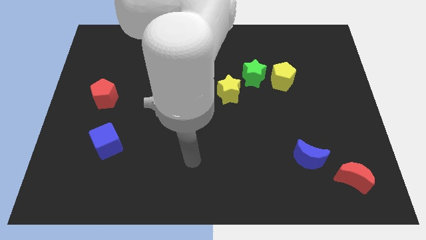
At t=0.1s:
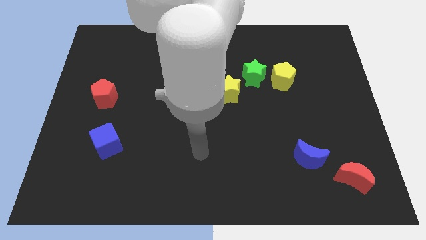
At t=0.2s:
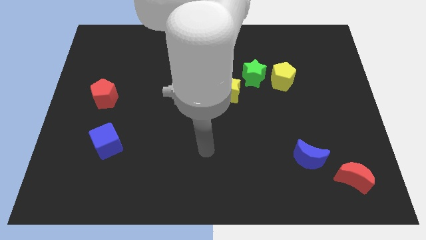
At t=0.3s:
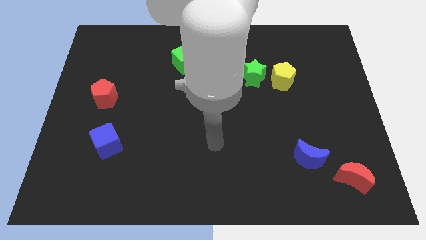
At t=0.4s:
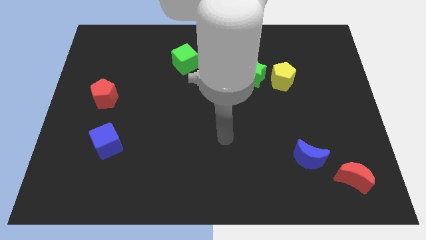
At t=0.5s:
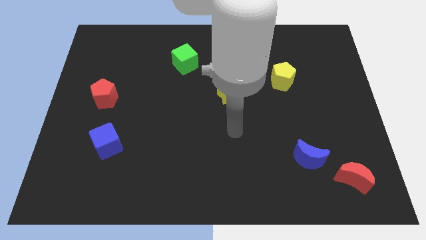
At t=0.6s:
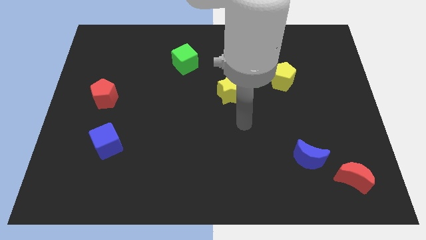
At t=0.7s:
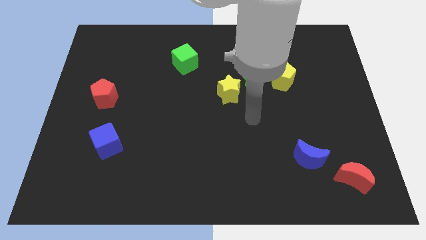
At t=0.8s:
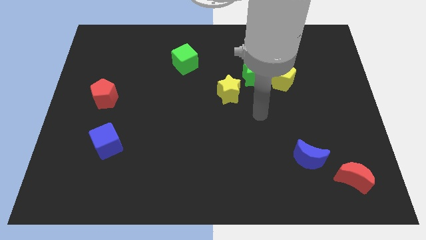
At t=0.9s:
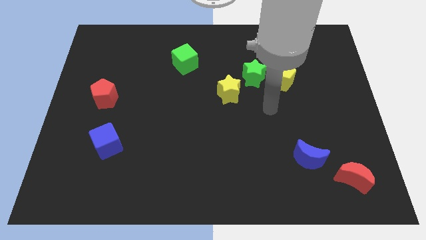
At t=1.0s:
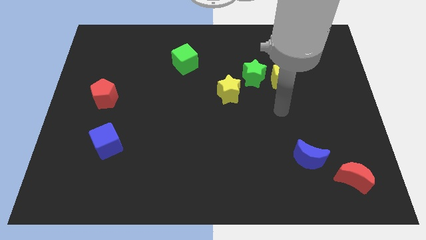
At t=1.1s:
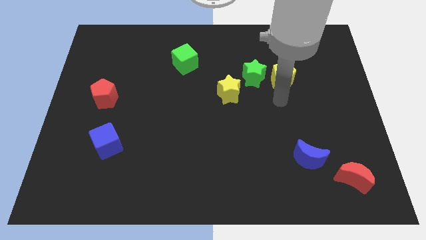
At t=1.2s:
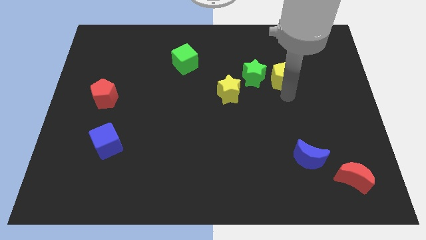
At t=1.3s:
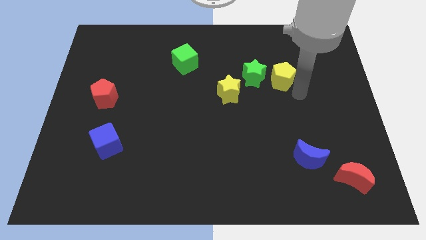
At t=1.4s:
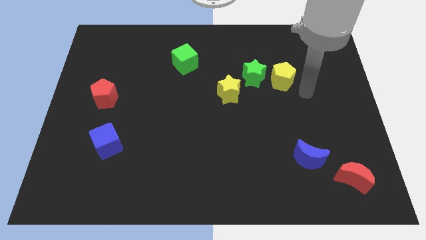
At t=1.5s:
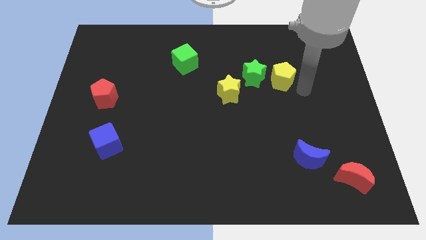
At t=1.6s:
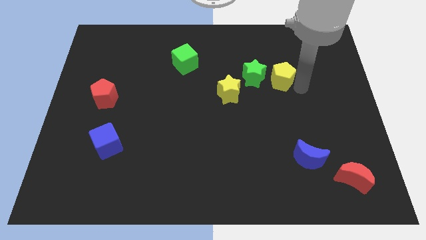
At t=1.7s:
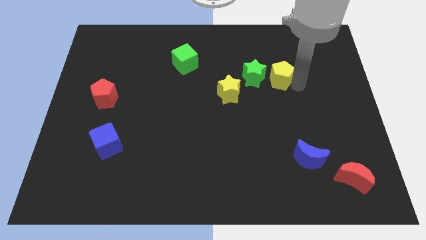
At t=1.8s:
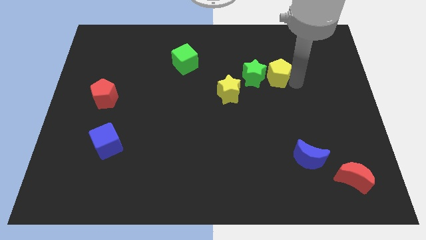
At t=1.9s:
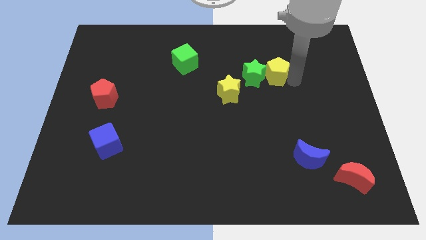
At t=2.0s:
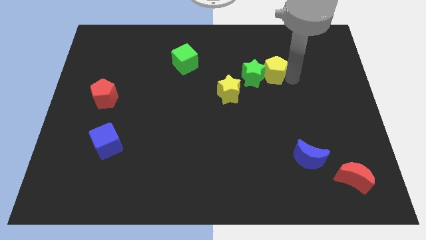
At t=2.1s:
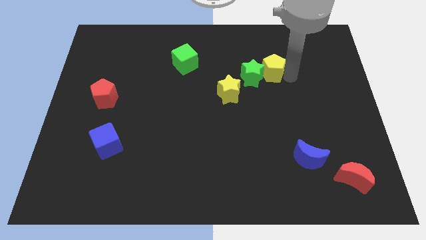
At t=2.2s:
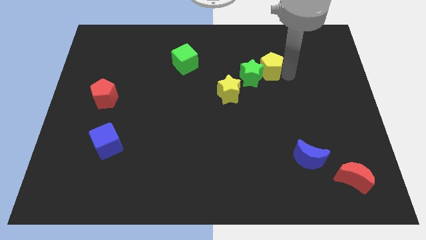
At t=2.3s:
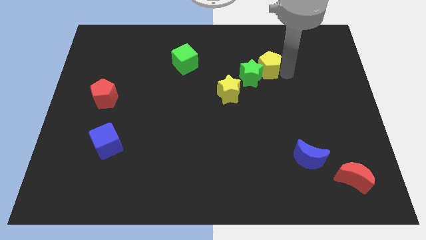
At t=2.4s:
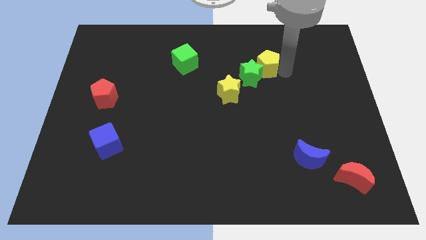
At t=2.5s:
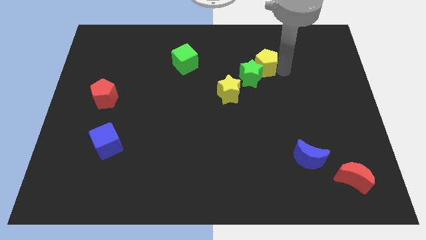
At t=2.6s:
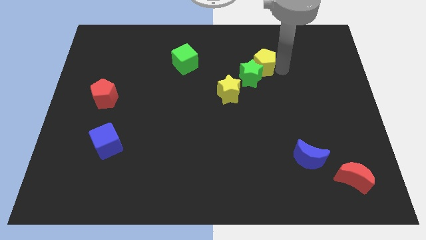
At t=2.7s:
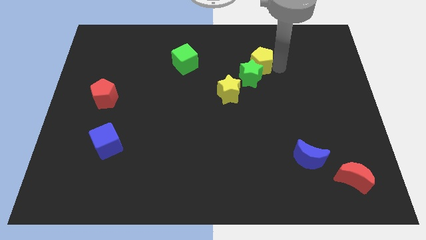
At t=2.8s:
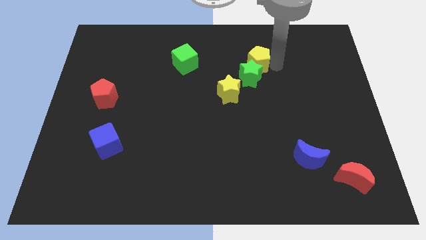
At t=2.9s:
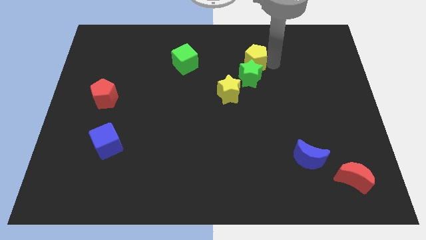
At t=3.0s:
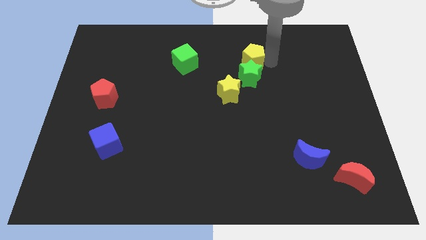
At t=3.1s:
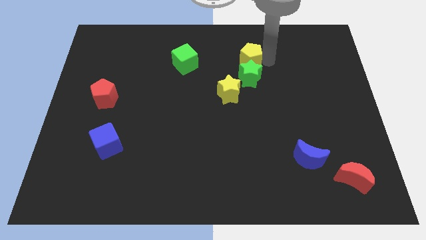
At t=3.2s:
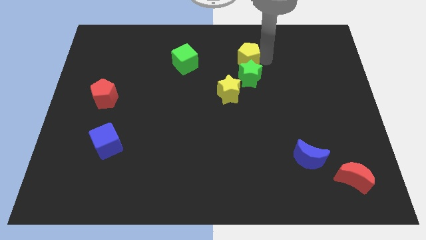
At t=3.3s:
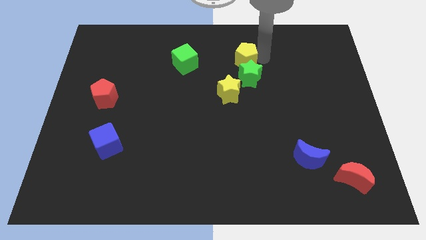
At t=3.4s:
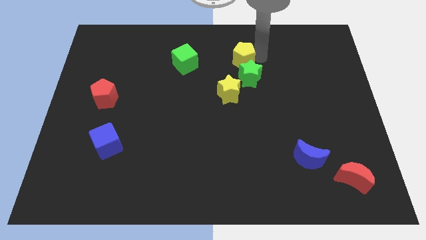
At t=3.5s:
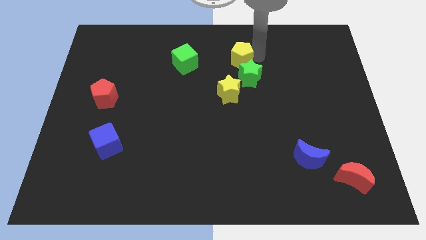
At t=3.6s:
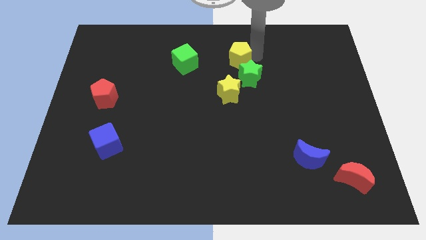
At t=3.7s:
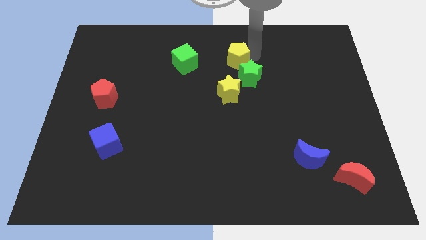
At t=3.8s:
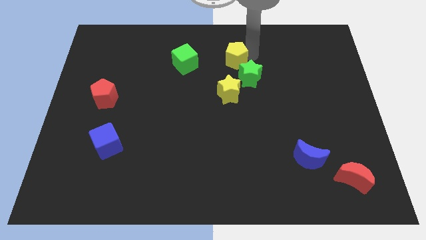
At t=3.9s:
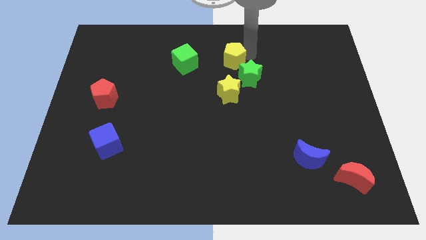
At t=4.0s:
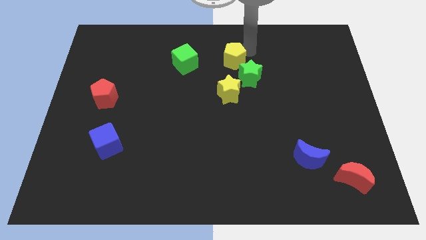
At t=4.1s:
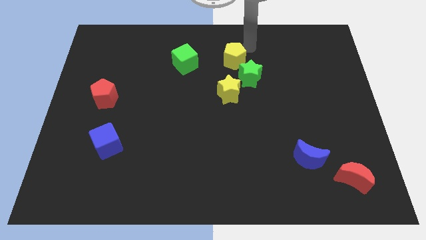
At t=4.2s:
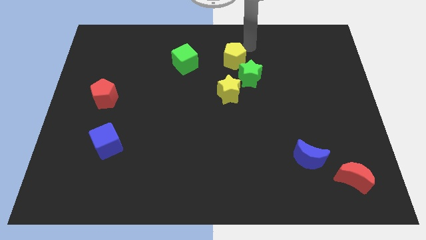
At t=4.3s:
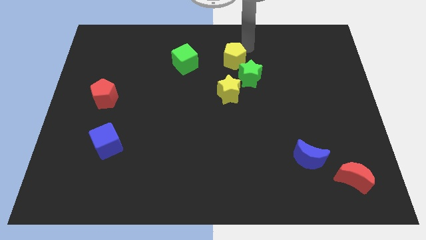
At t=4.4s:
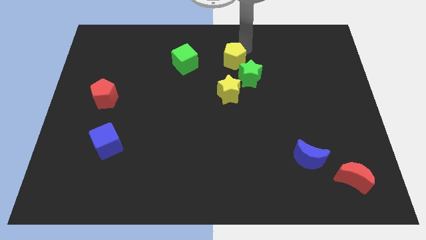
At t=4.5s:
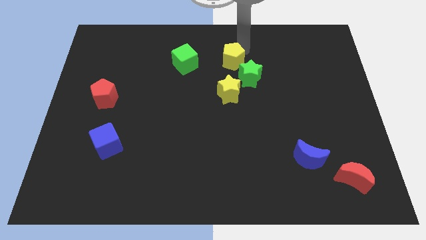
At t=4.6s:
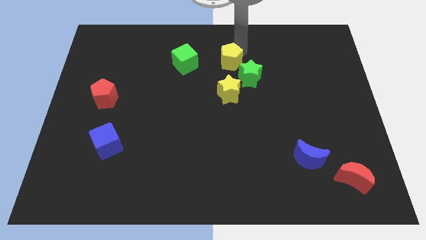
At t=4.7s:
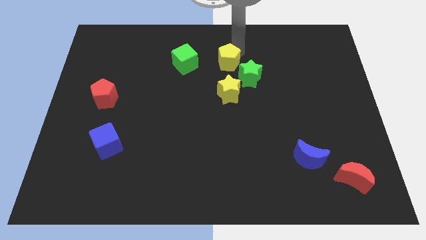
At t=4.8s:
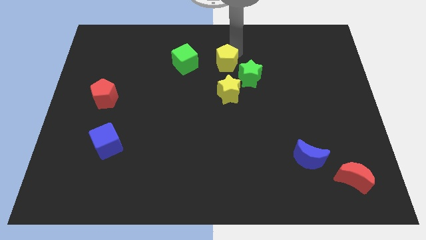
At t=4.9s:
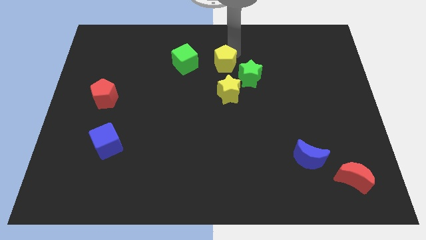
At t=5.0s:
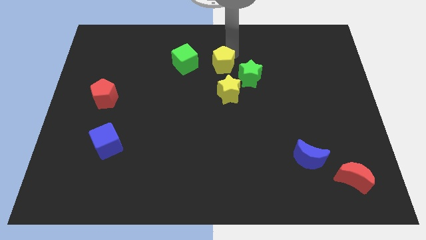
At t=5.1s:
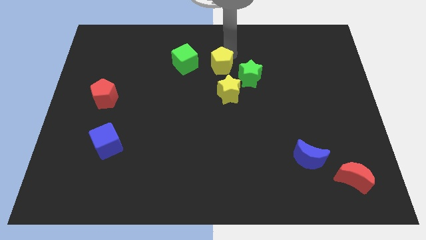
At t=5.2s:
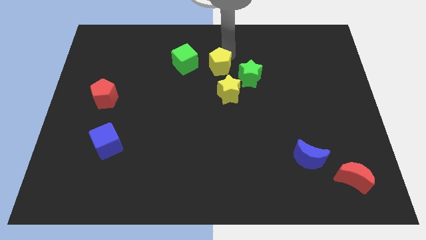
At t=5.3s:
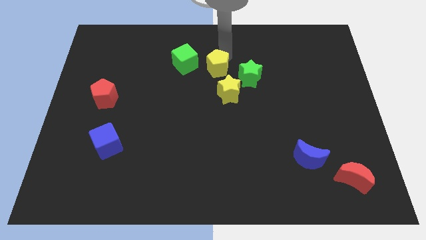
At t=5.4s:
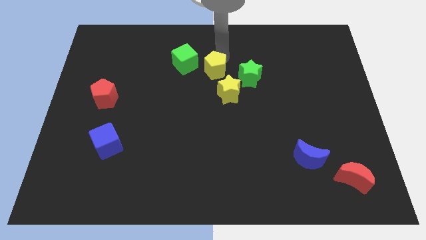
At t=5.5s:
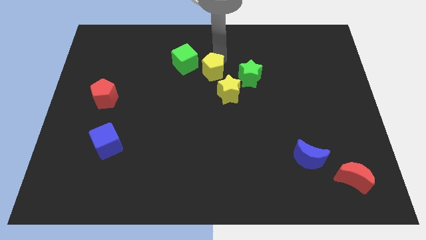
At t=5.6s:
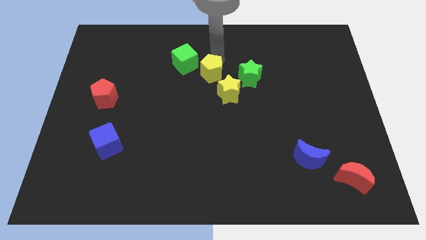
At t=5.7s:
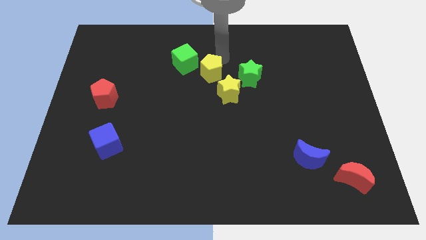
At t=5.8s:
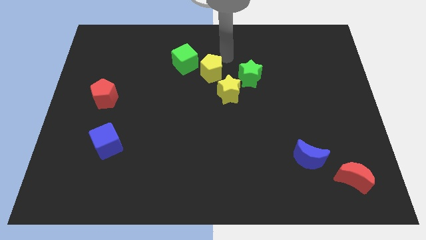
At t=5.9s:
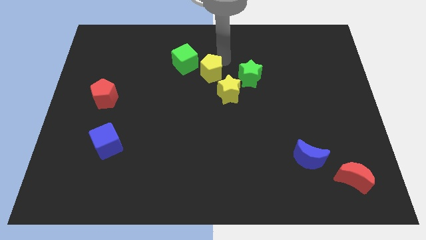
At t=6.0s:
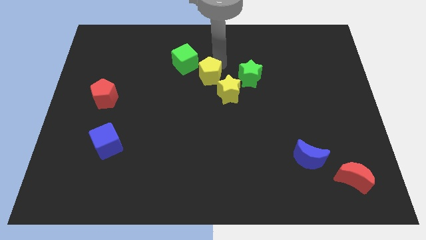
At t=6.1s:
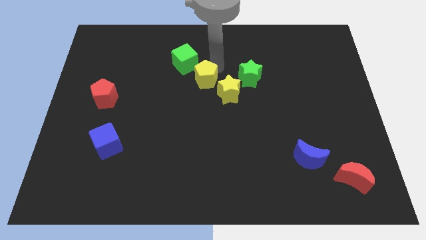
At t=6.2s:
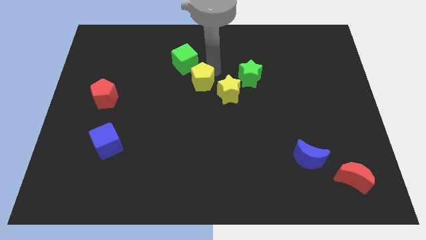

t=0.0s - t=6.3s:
slide the yellow pentagon to the left

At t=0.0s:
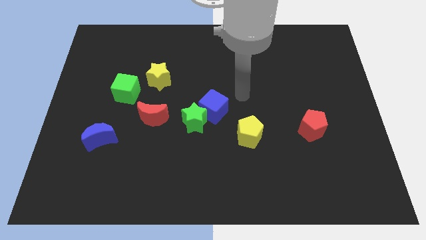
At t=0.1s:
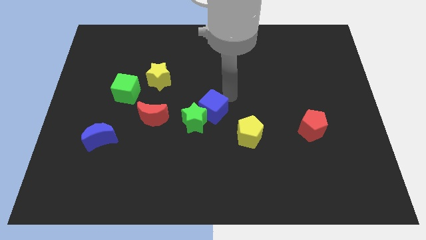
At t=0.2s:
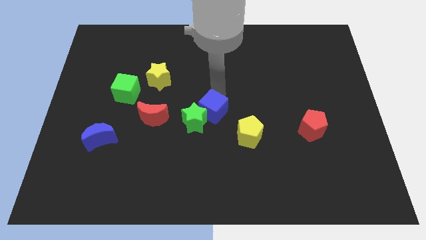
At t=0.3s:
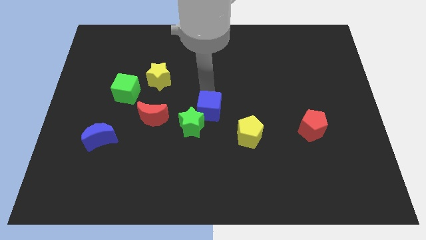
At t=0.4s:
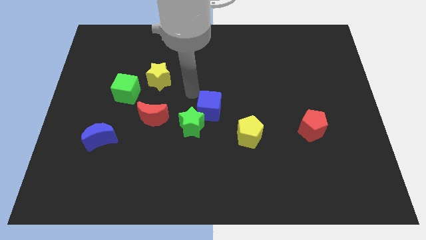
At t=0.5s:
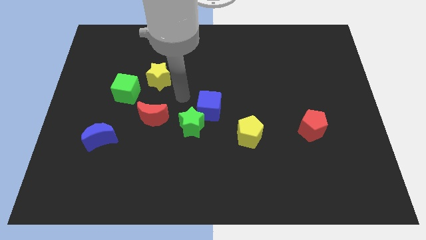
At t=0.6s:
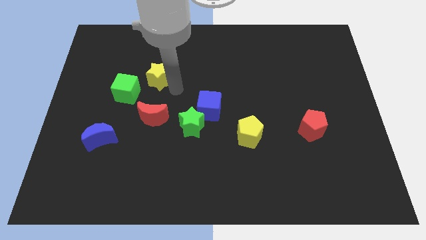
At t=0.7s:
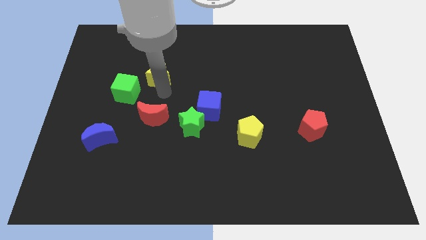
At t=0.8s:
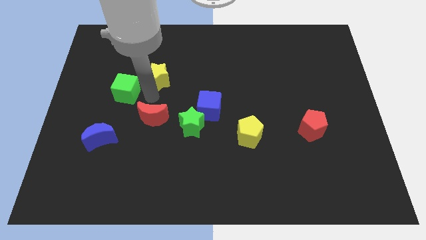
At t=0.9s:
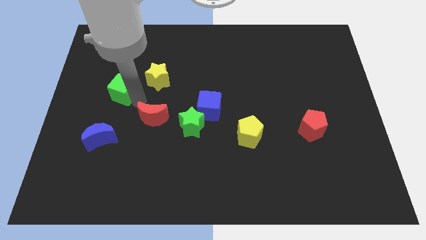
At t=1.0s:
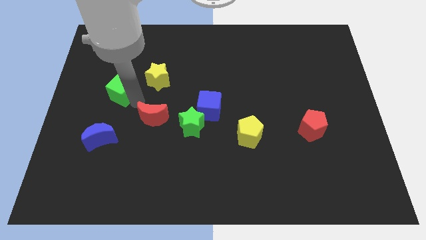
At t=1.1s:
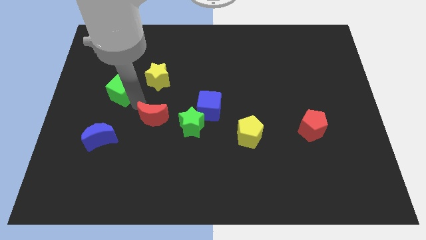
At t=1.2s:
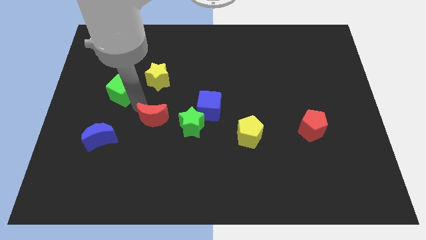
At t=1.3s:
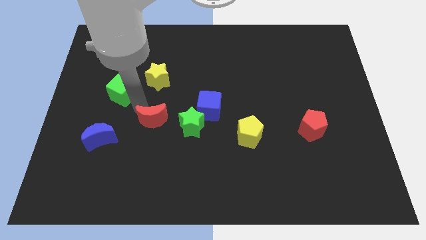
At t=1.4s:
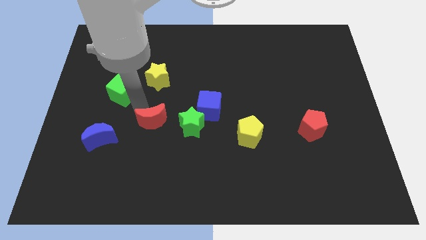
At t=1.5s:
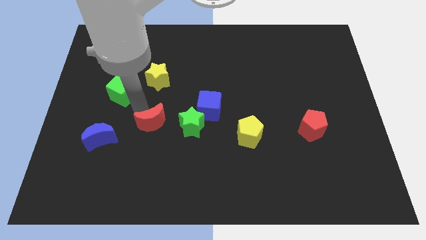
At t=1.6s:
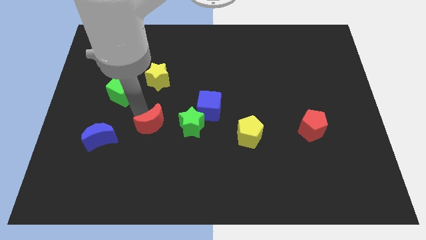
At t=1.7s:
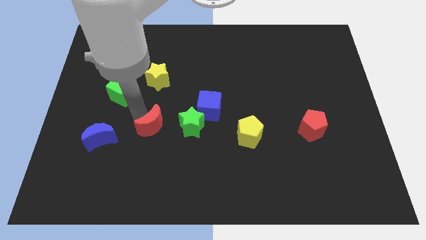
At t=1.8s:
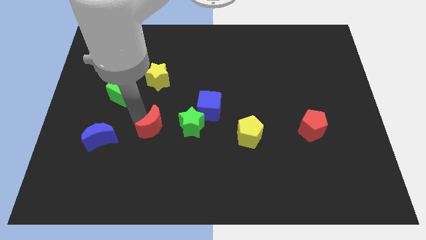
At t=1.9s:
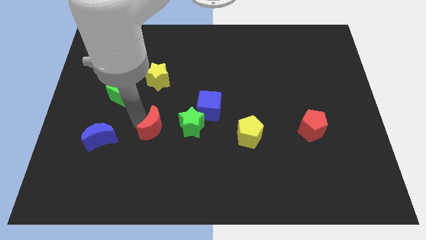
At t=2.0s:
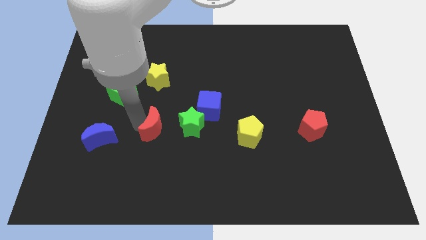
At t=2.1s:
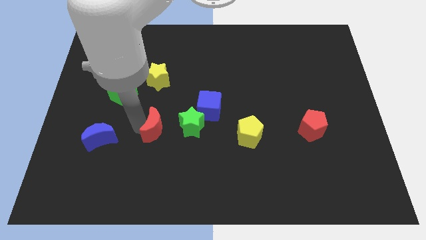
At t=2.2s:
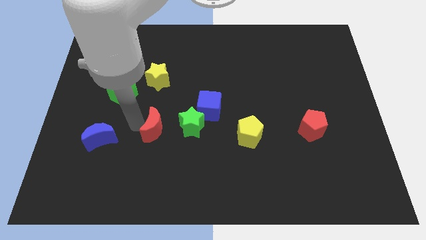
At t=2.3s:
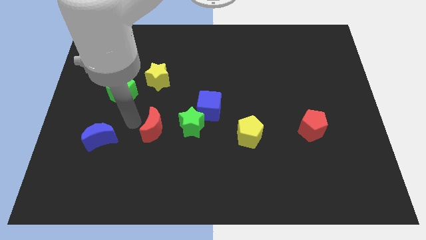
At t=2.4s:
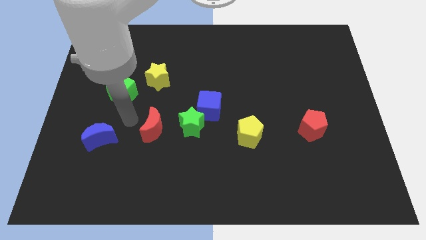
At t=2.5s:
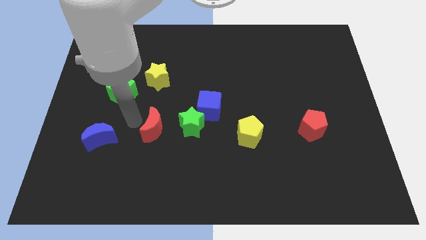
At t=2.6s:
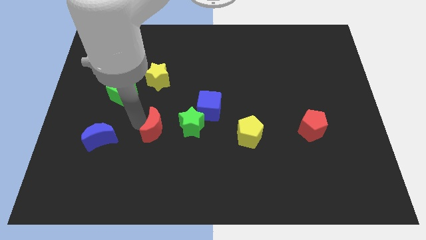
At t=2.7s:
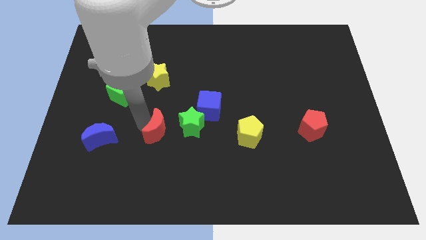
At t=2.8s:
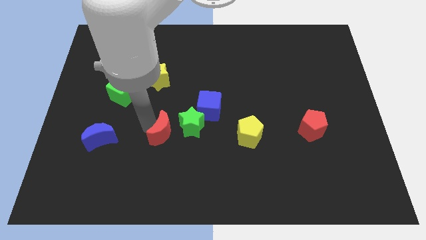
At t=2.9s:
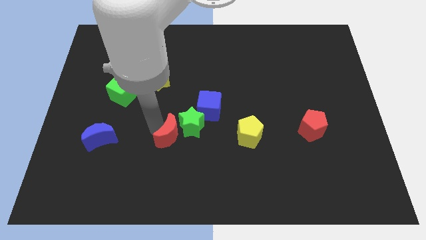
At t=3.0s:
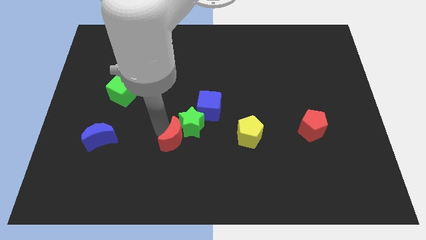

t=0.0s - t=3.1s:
move the red moon downwards and to the right diagonally slightly
